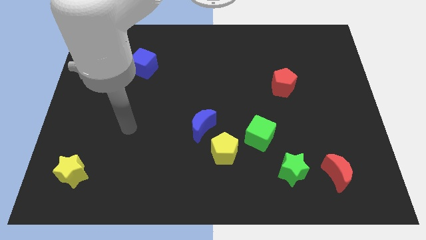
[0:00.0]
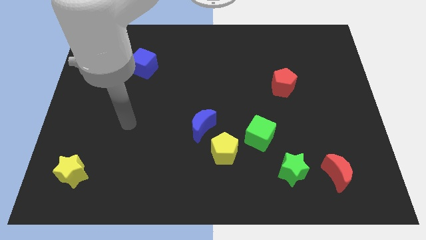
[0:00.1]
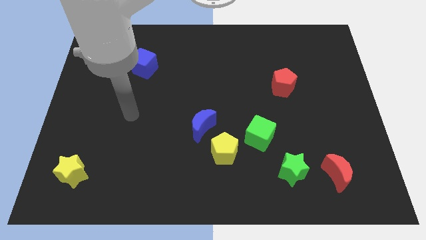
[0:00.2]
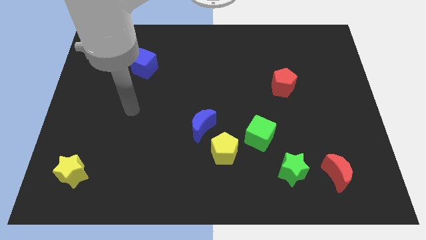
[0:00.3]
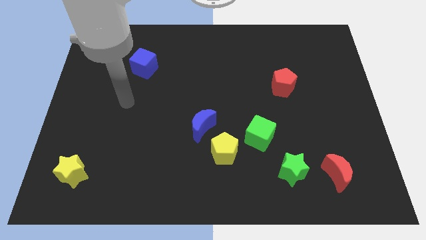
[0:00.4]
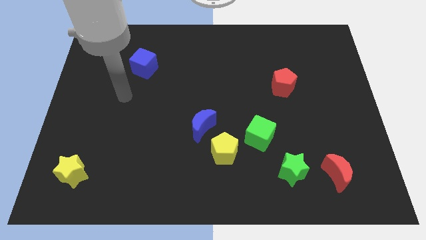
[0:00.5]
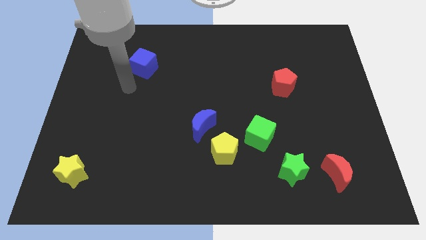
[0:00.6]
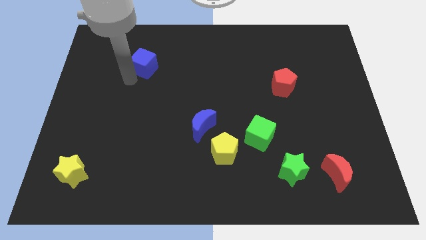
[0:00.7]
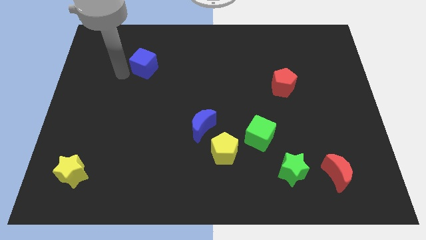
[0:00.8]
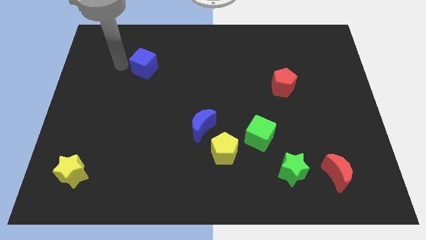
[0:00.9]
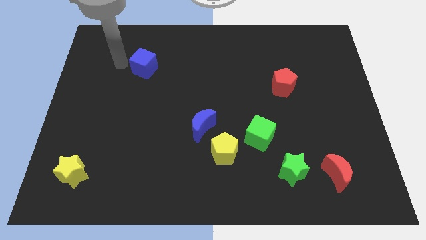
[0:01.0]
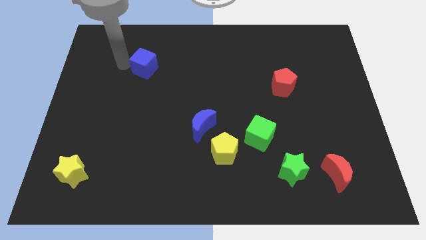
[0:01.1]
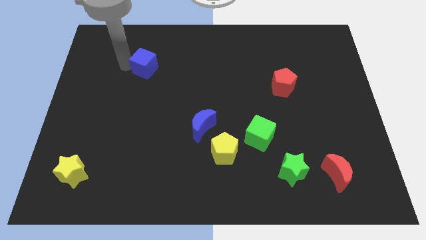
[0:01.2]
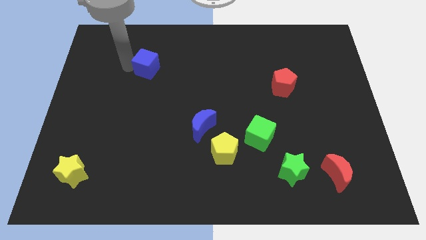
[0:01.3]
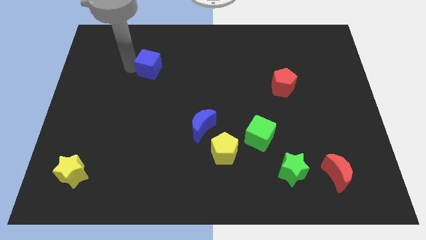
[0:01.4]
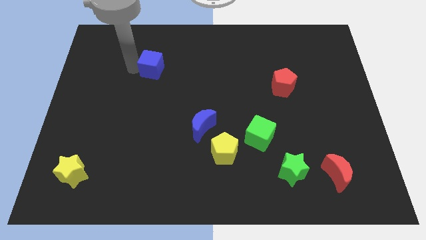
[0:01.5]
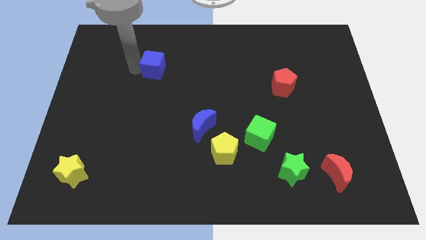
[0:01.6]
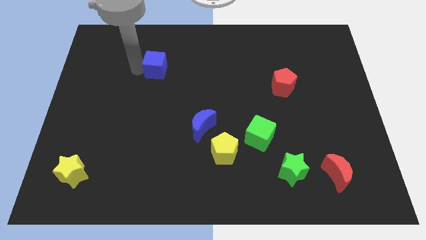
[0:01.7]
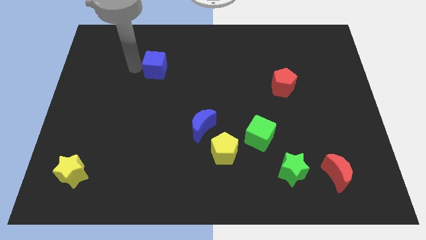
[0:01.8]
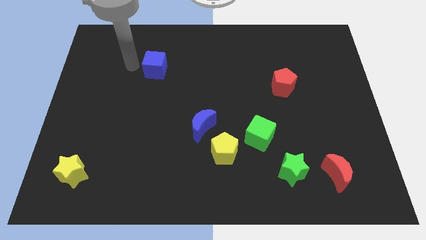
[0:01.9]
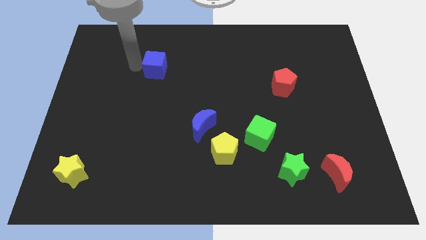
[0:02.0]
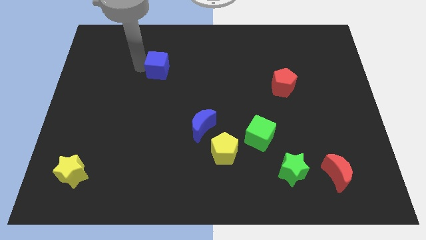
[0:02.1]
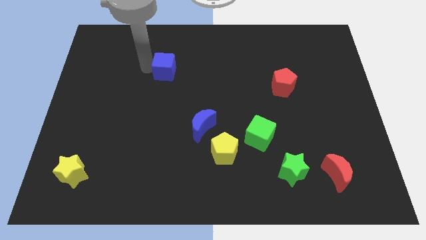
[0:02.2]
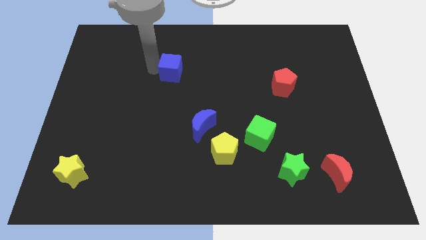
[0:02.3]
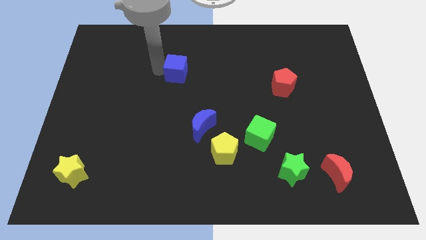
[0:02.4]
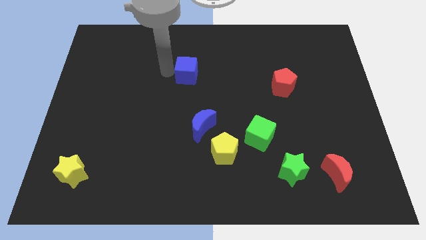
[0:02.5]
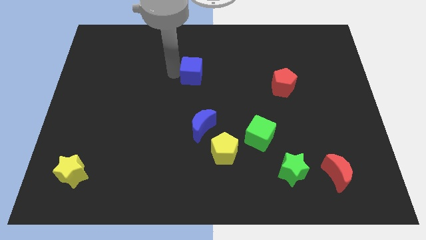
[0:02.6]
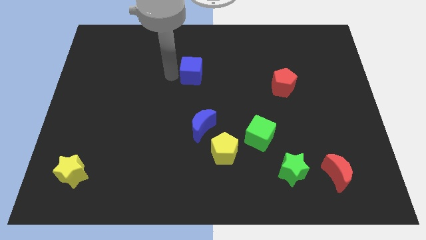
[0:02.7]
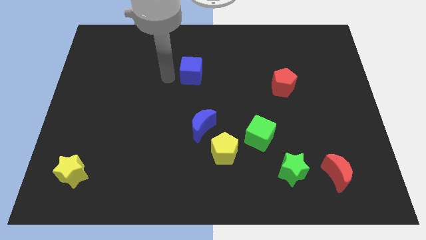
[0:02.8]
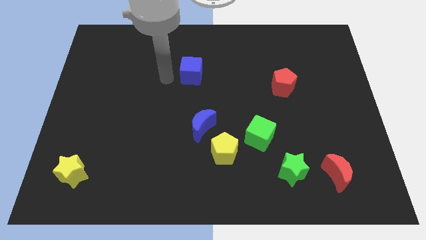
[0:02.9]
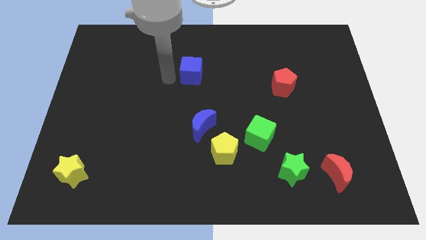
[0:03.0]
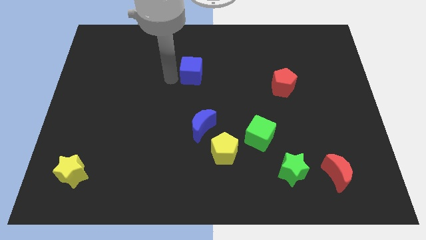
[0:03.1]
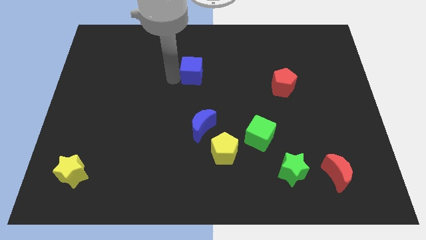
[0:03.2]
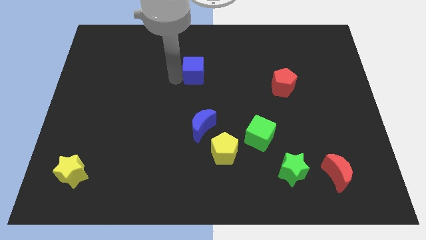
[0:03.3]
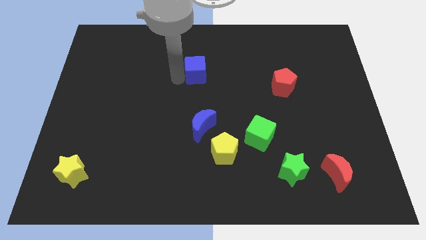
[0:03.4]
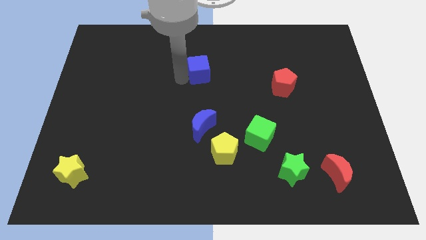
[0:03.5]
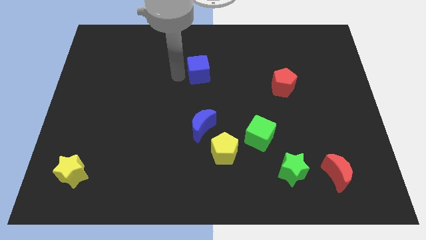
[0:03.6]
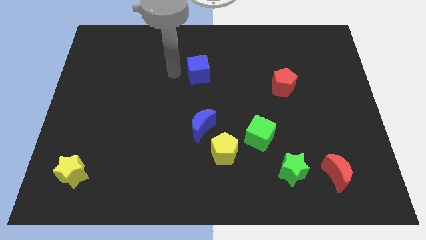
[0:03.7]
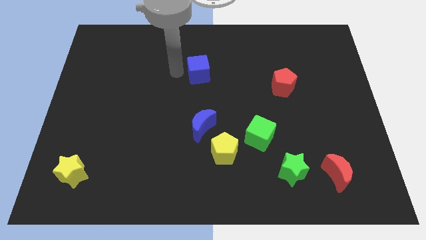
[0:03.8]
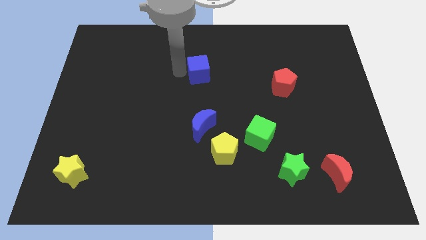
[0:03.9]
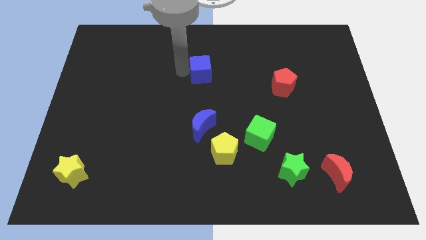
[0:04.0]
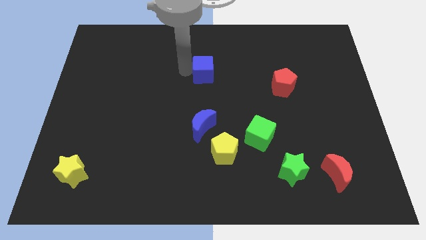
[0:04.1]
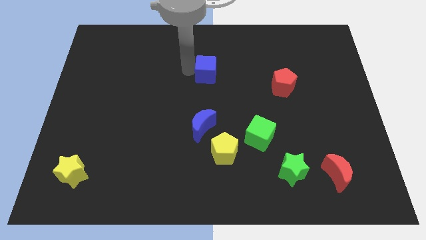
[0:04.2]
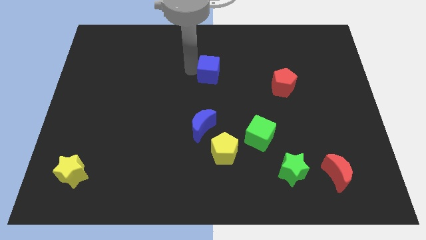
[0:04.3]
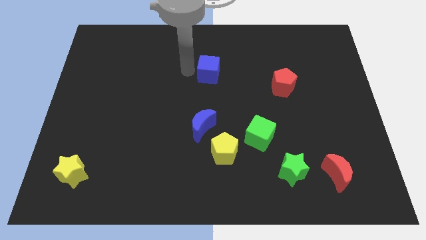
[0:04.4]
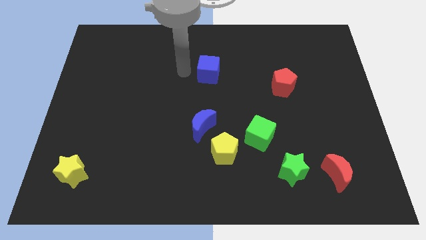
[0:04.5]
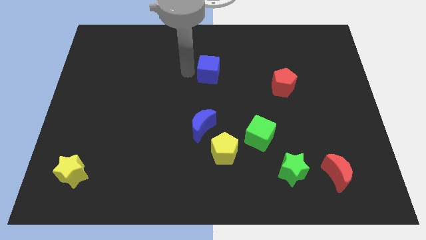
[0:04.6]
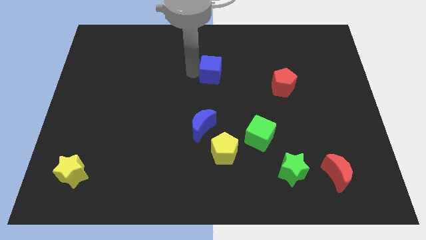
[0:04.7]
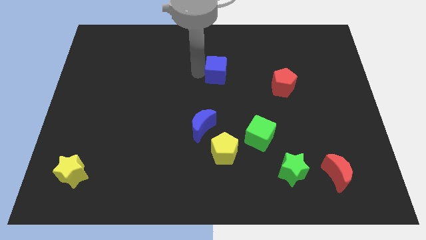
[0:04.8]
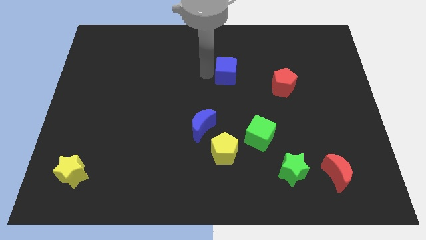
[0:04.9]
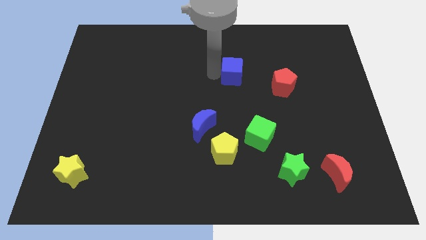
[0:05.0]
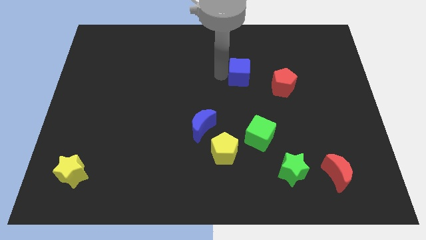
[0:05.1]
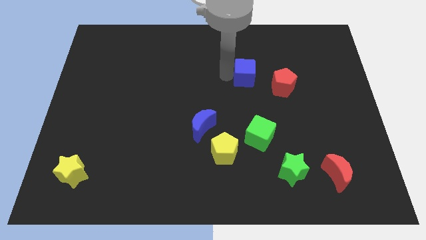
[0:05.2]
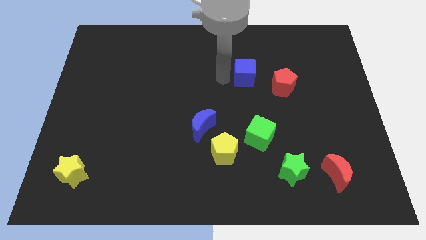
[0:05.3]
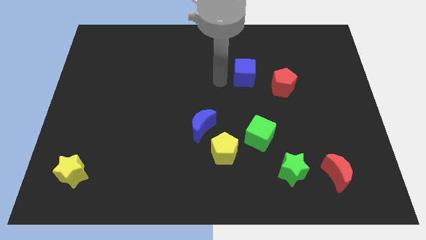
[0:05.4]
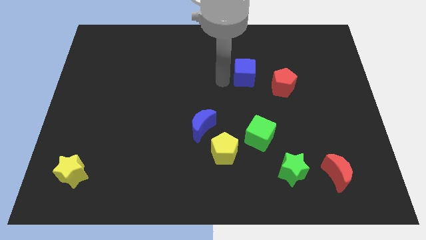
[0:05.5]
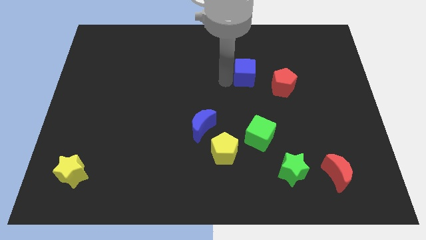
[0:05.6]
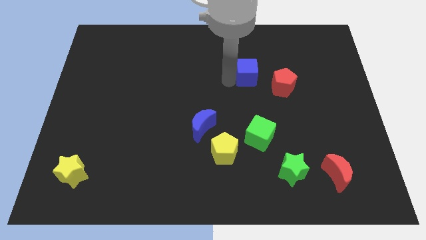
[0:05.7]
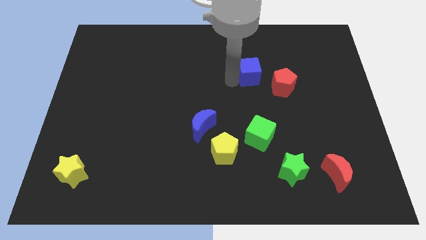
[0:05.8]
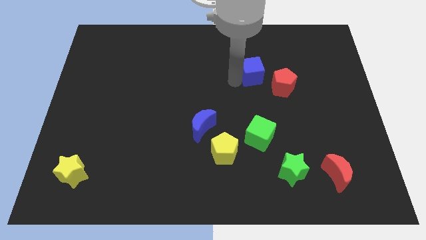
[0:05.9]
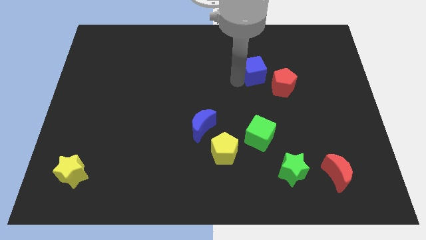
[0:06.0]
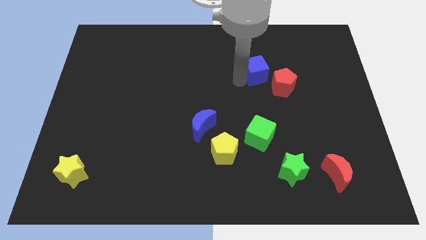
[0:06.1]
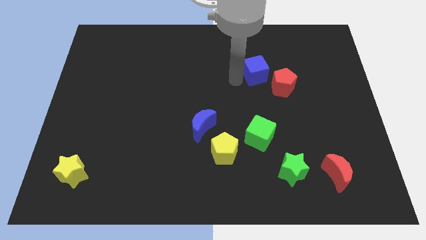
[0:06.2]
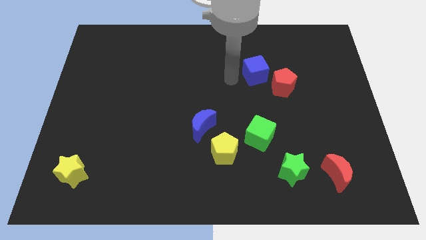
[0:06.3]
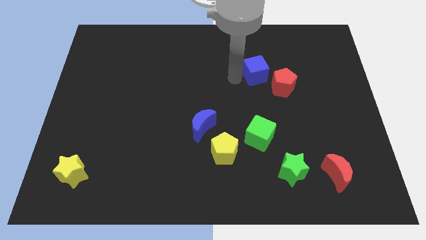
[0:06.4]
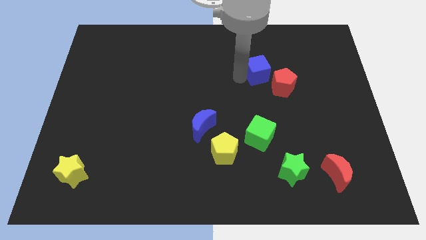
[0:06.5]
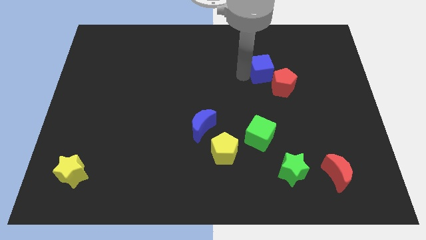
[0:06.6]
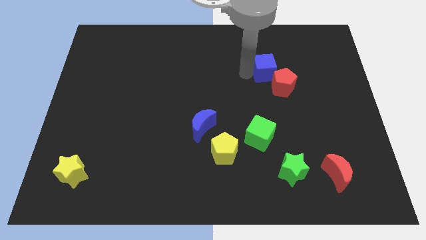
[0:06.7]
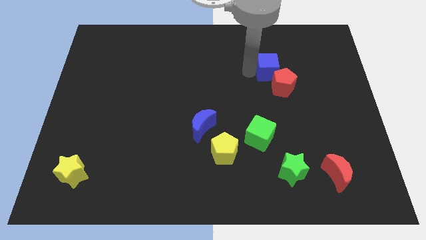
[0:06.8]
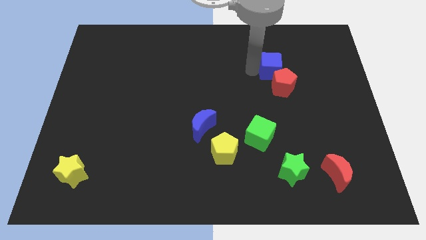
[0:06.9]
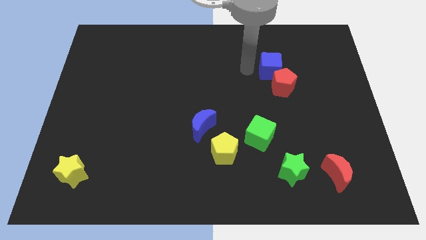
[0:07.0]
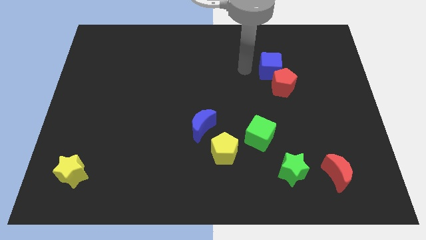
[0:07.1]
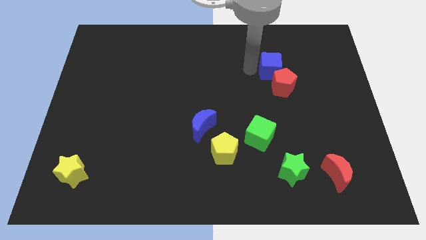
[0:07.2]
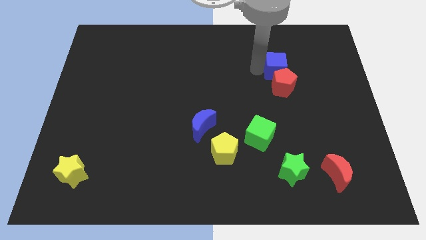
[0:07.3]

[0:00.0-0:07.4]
move the blue cube to the top right side of the red pentagon
